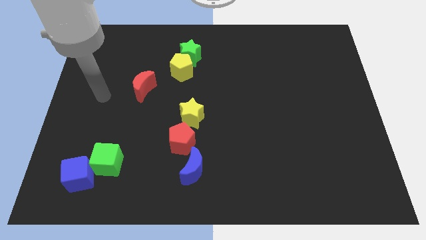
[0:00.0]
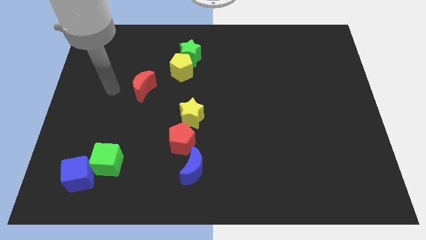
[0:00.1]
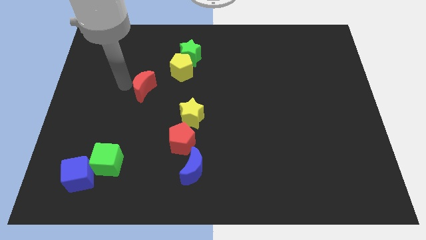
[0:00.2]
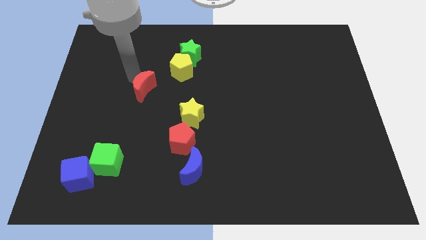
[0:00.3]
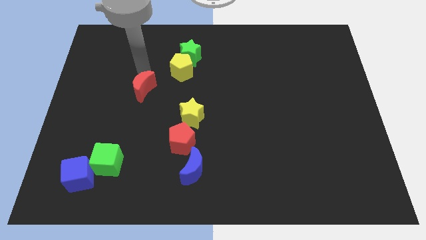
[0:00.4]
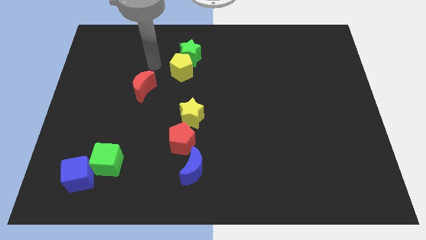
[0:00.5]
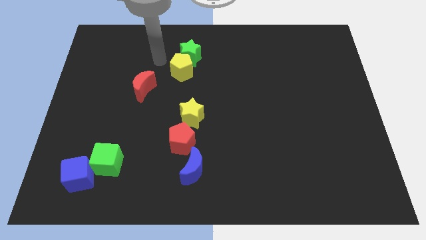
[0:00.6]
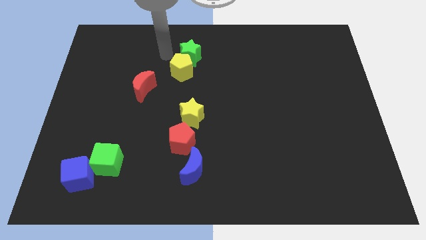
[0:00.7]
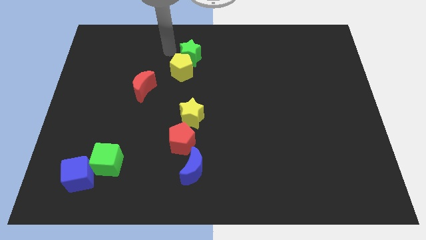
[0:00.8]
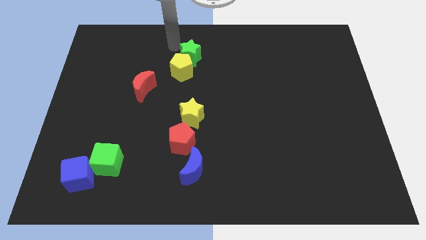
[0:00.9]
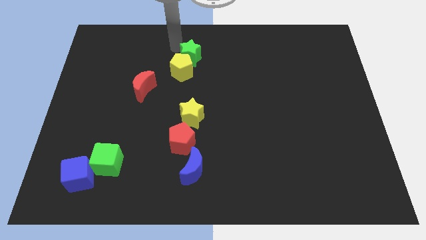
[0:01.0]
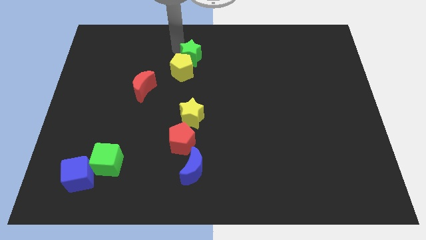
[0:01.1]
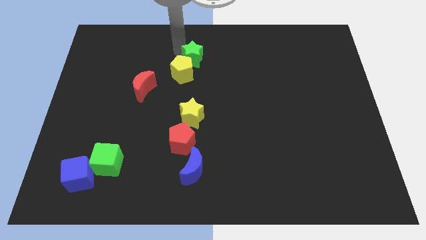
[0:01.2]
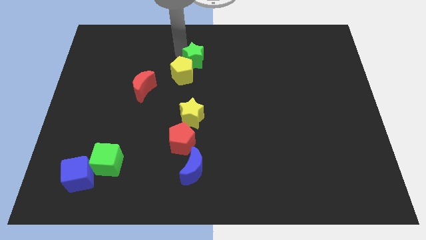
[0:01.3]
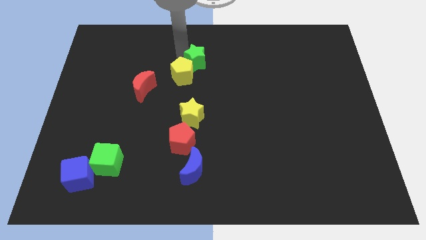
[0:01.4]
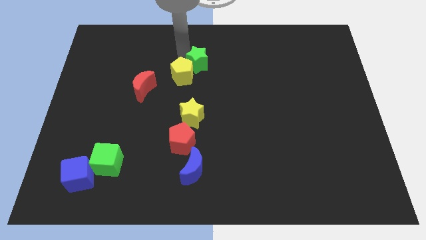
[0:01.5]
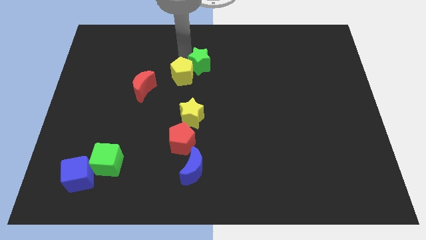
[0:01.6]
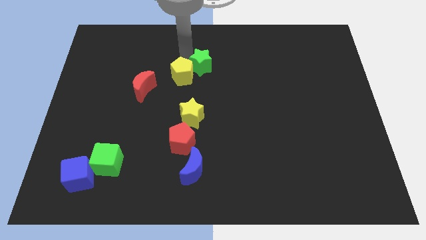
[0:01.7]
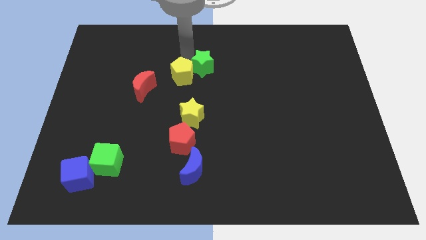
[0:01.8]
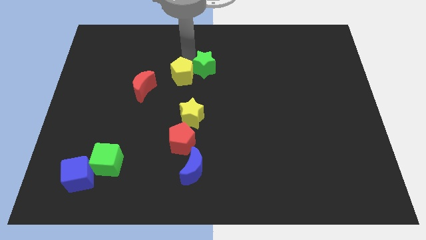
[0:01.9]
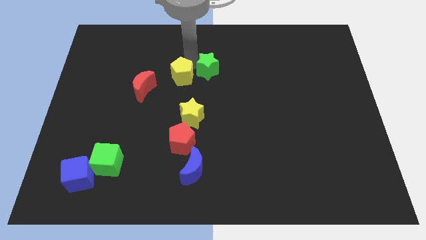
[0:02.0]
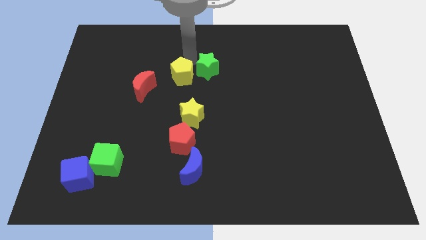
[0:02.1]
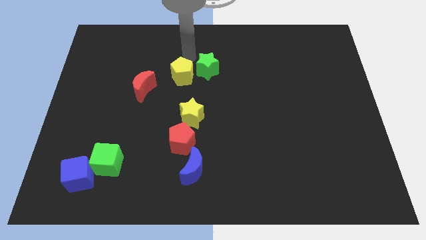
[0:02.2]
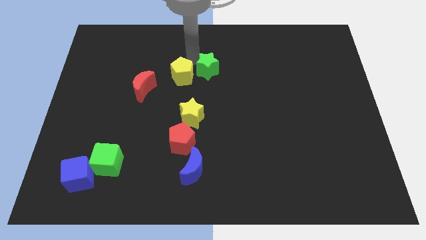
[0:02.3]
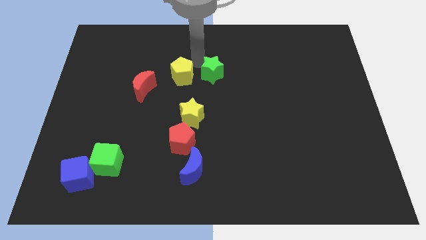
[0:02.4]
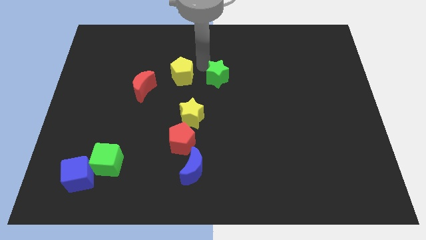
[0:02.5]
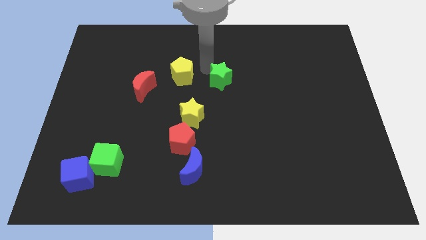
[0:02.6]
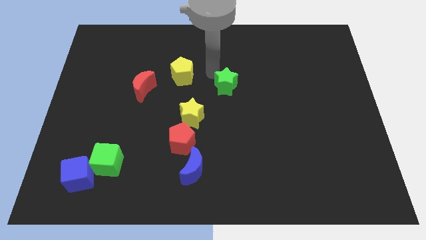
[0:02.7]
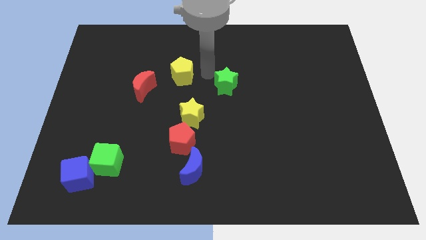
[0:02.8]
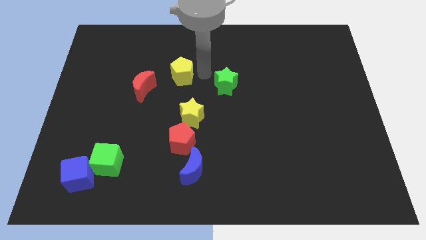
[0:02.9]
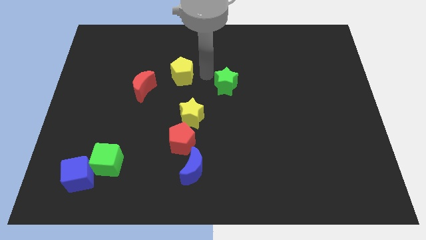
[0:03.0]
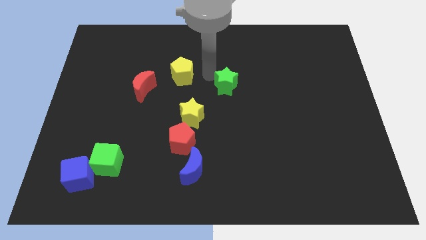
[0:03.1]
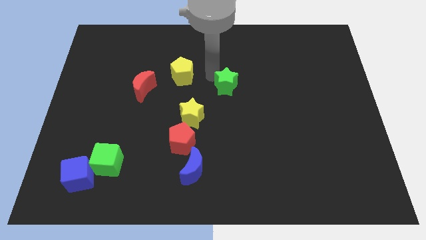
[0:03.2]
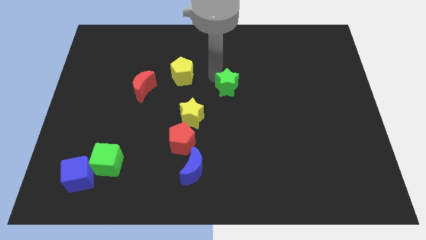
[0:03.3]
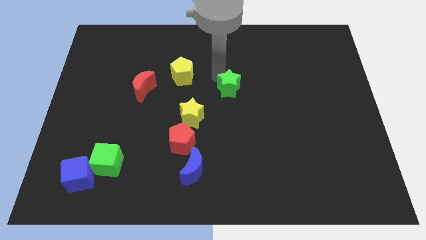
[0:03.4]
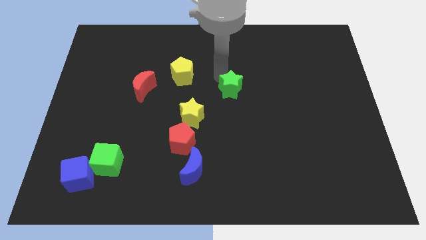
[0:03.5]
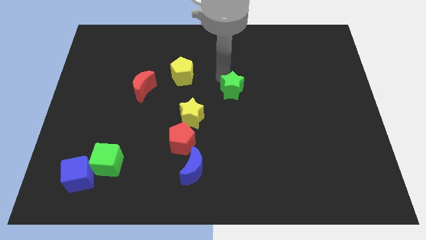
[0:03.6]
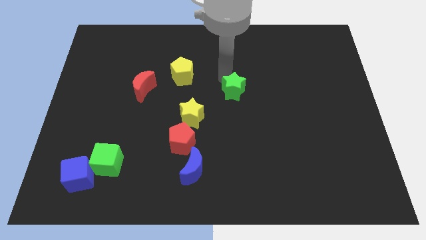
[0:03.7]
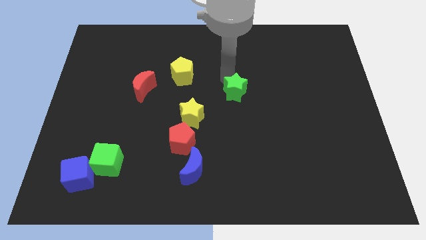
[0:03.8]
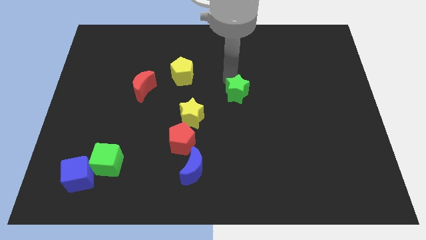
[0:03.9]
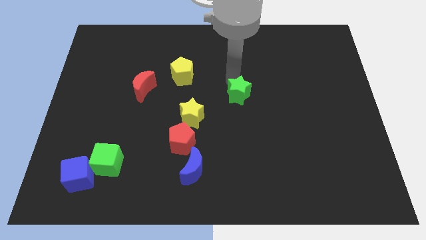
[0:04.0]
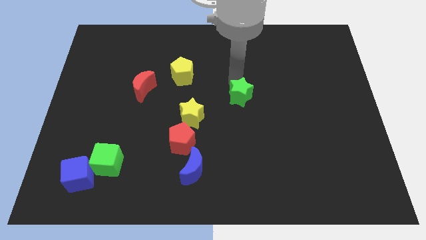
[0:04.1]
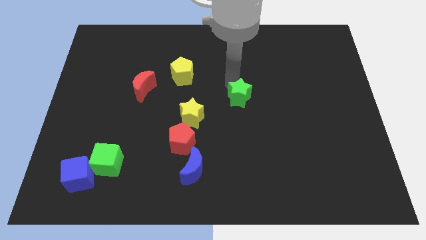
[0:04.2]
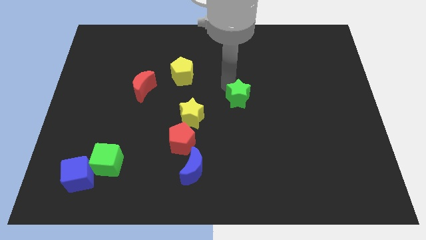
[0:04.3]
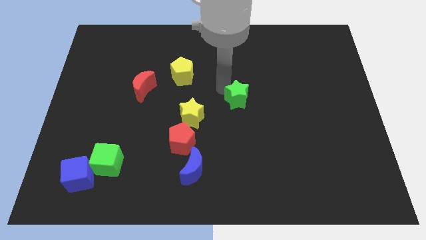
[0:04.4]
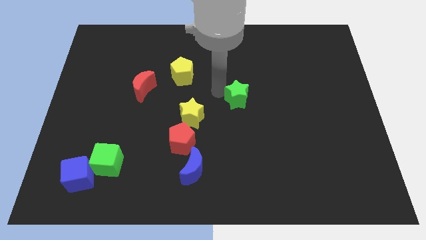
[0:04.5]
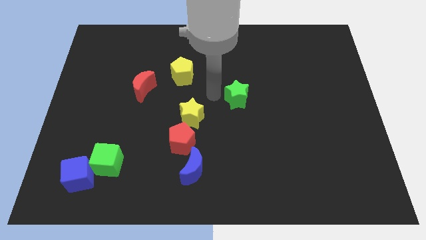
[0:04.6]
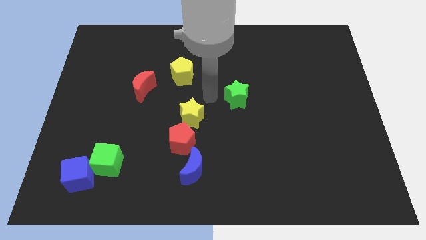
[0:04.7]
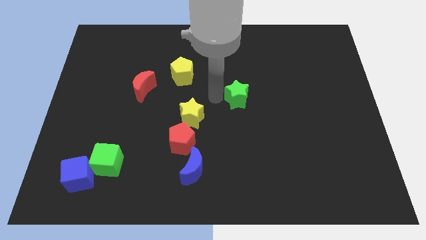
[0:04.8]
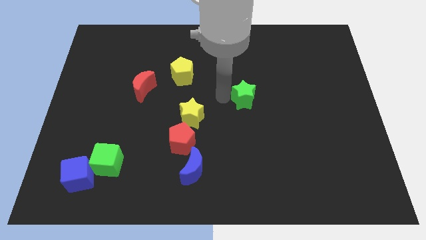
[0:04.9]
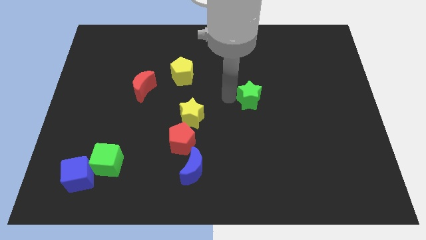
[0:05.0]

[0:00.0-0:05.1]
push the green star diagonally downwards and to the right

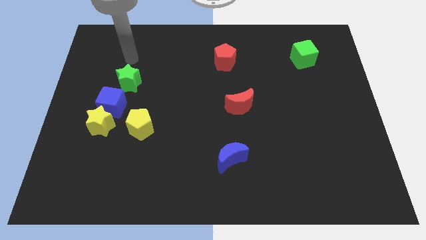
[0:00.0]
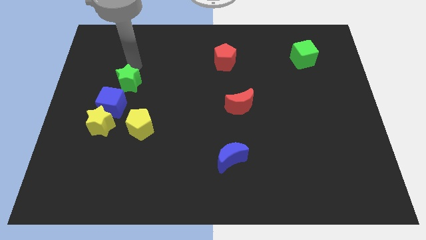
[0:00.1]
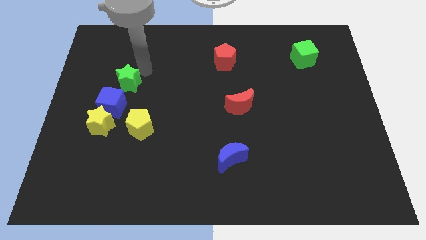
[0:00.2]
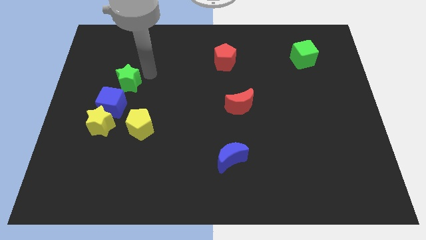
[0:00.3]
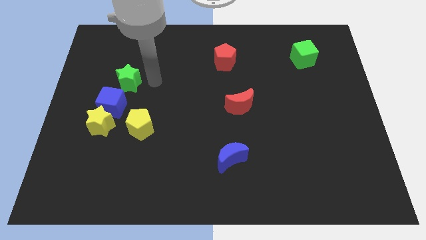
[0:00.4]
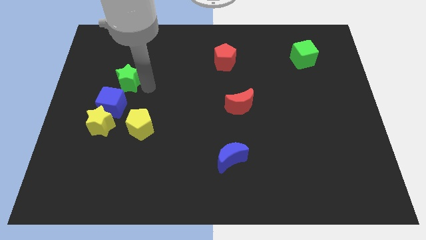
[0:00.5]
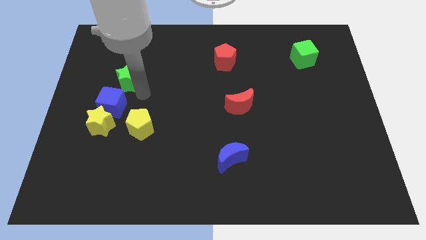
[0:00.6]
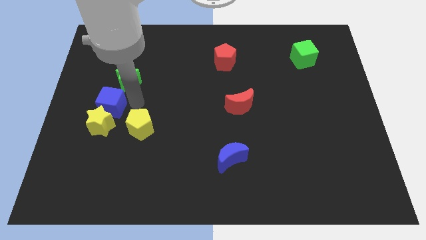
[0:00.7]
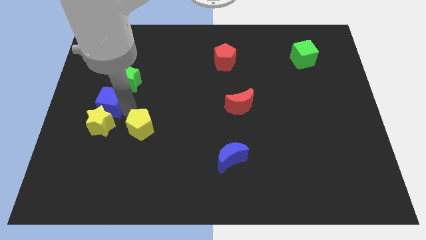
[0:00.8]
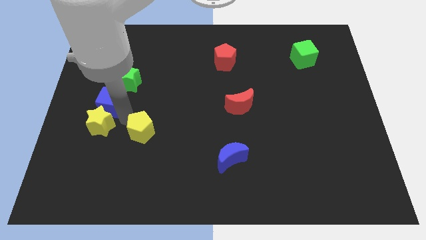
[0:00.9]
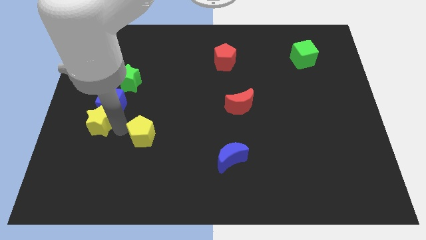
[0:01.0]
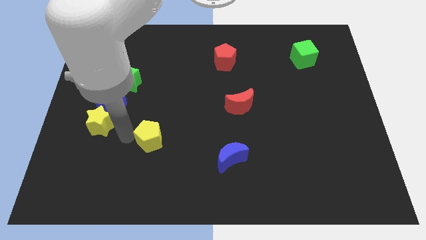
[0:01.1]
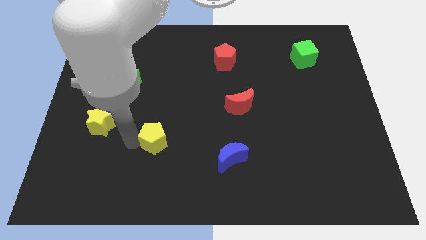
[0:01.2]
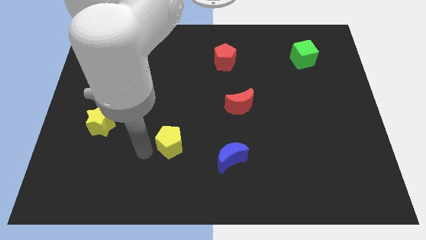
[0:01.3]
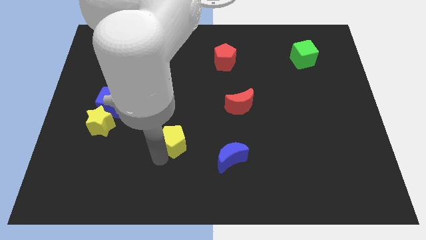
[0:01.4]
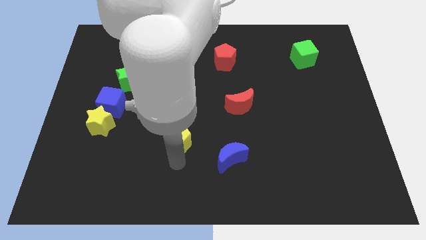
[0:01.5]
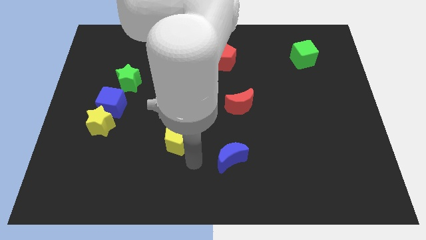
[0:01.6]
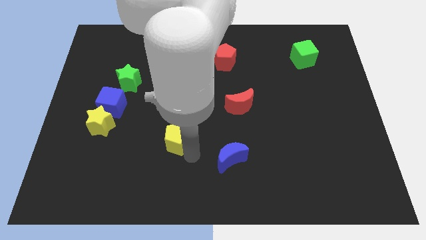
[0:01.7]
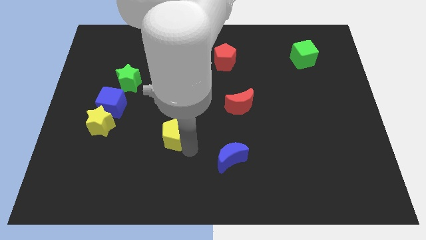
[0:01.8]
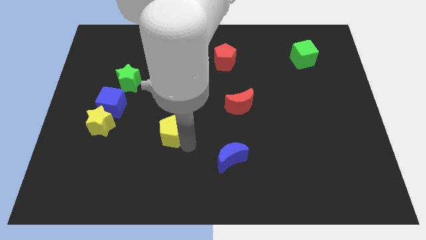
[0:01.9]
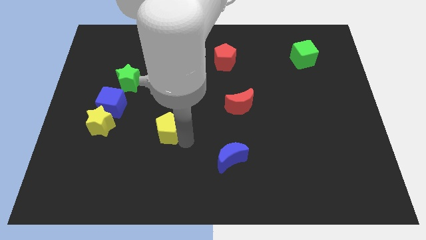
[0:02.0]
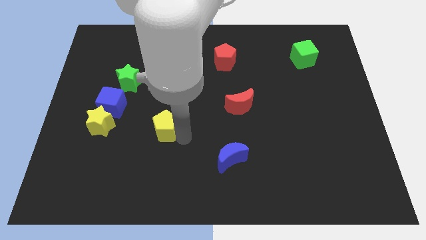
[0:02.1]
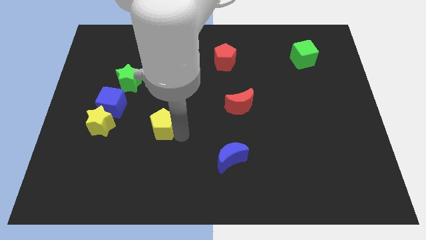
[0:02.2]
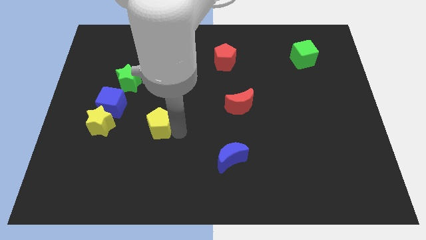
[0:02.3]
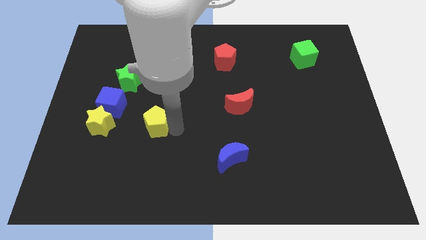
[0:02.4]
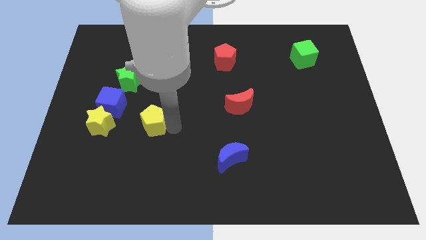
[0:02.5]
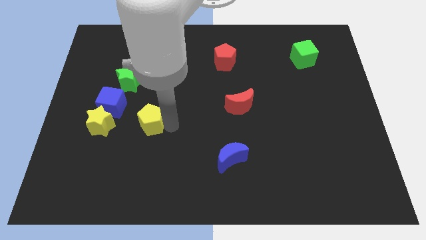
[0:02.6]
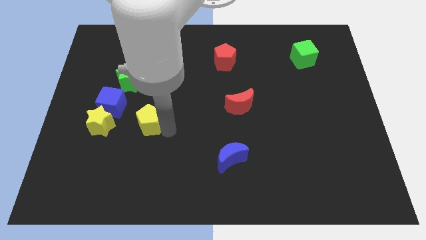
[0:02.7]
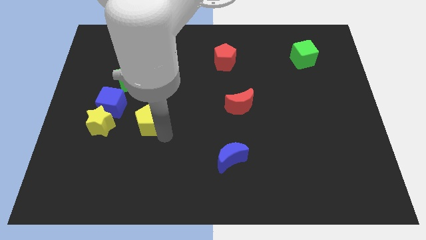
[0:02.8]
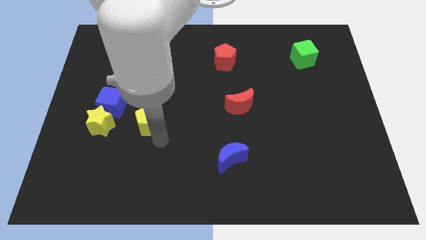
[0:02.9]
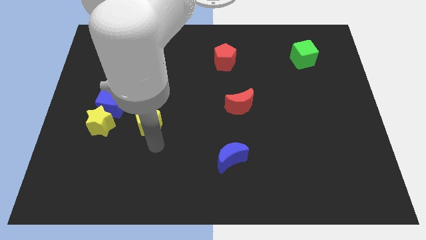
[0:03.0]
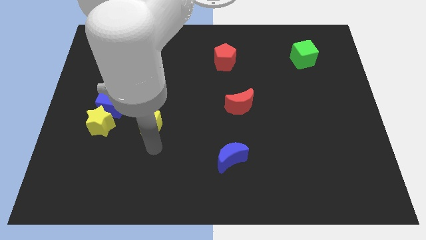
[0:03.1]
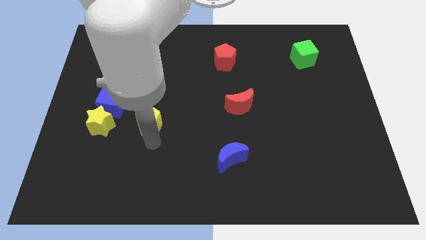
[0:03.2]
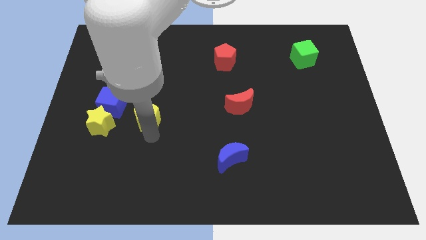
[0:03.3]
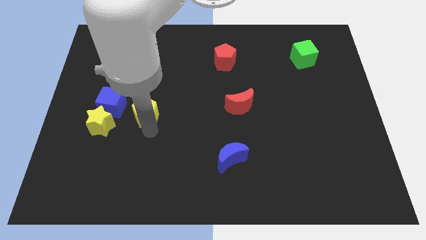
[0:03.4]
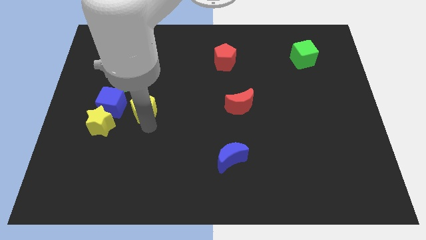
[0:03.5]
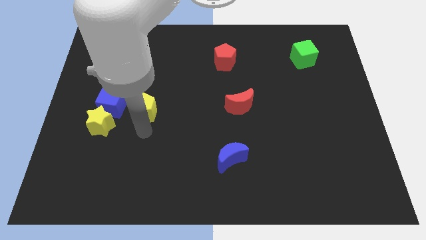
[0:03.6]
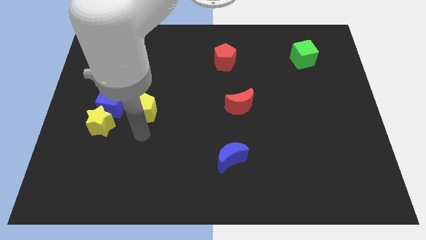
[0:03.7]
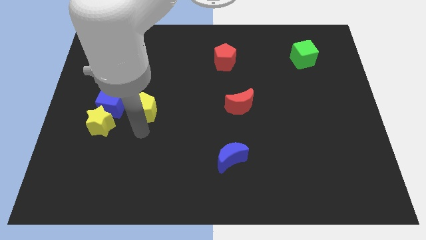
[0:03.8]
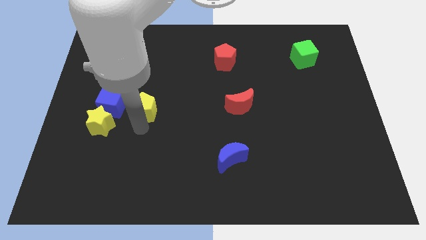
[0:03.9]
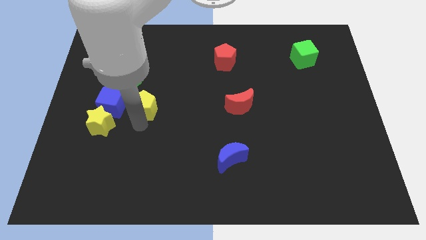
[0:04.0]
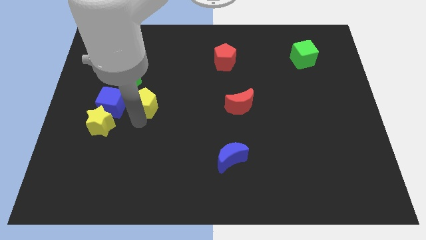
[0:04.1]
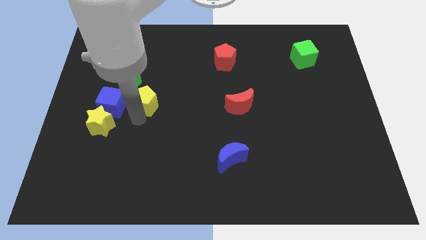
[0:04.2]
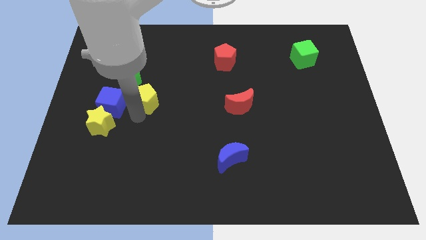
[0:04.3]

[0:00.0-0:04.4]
slightly move the yellow pentagon up
